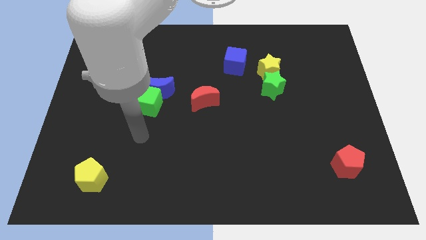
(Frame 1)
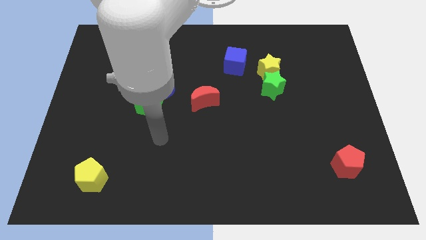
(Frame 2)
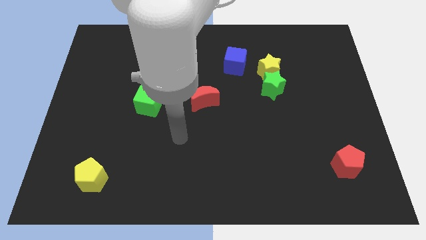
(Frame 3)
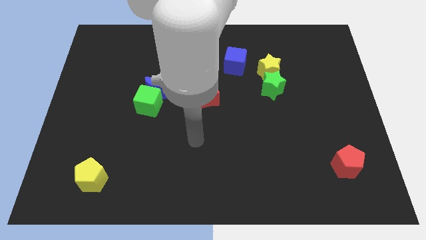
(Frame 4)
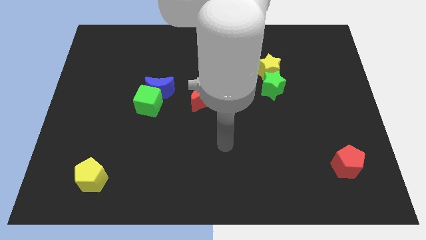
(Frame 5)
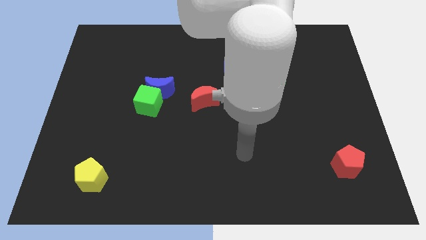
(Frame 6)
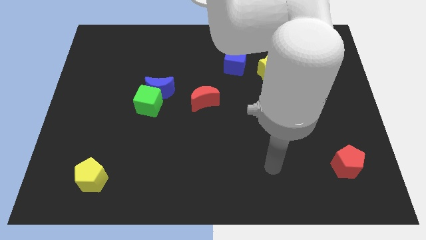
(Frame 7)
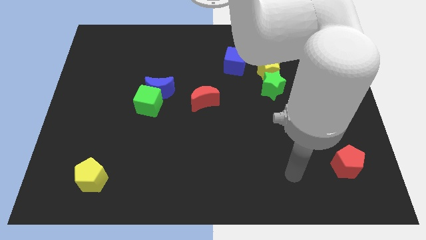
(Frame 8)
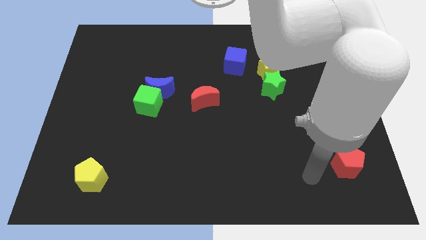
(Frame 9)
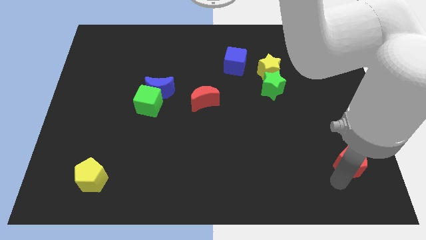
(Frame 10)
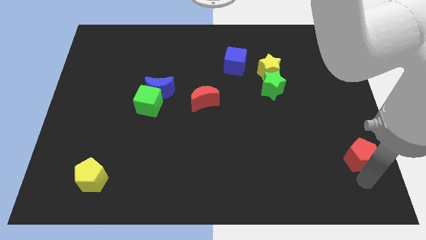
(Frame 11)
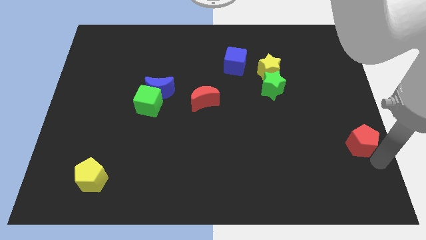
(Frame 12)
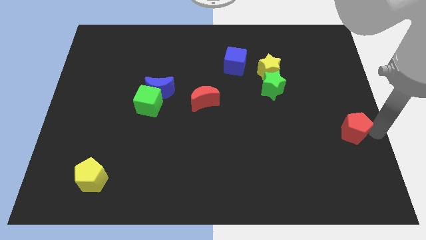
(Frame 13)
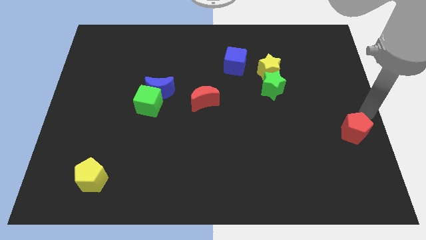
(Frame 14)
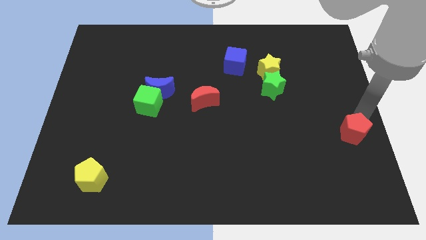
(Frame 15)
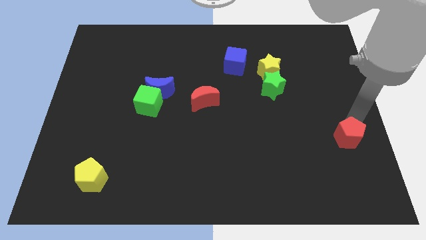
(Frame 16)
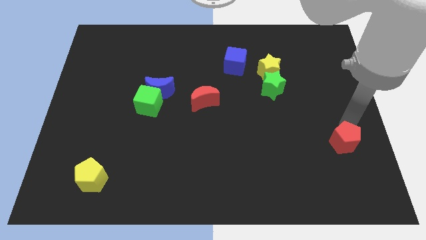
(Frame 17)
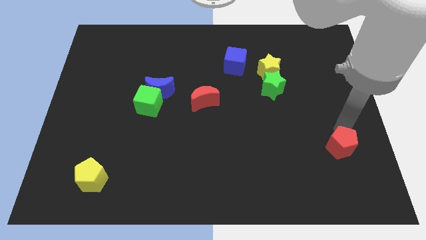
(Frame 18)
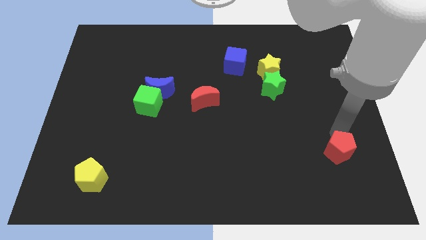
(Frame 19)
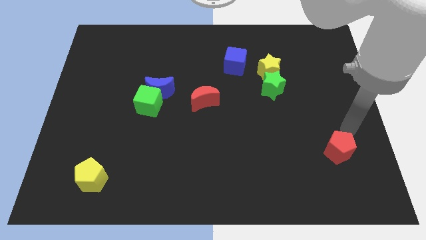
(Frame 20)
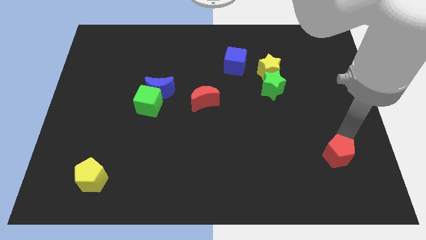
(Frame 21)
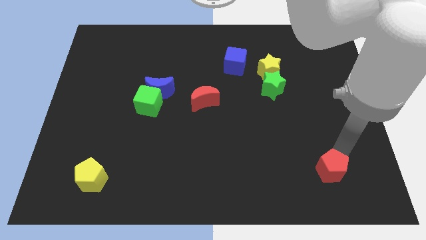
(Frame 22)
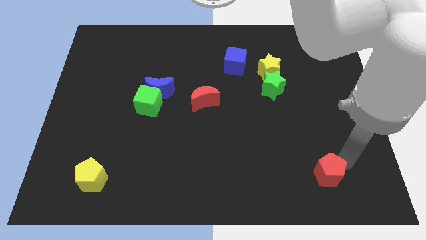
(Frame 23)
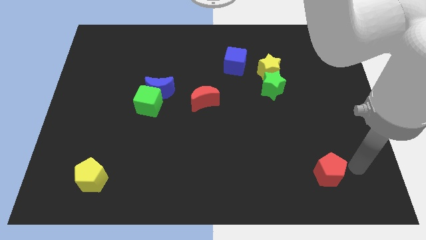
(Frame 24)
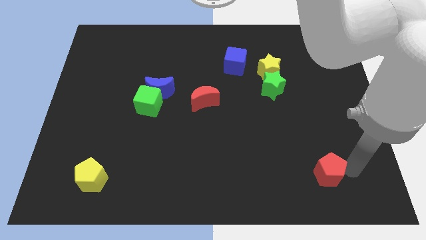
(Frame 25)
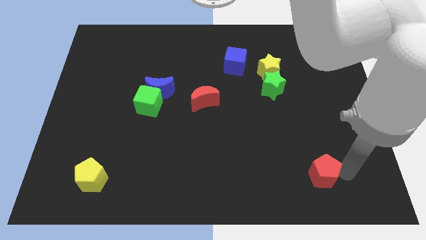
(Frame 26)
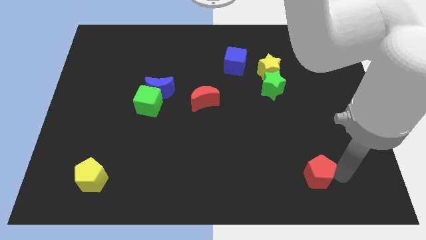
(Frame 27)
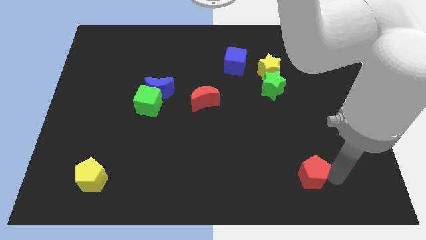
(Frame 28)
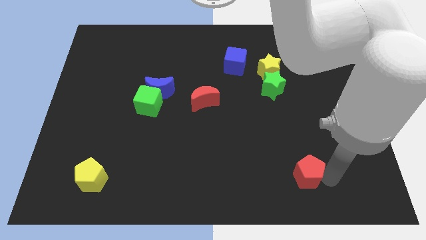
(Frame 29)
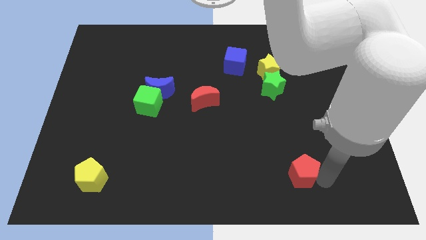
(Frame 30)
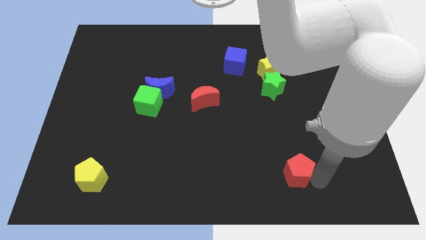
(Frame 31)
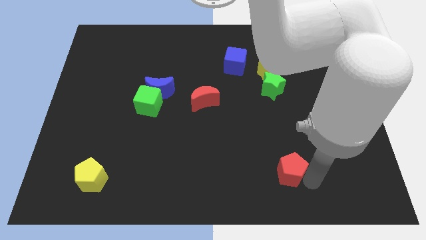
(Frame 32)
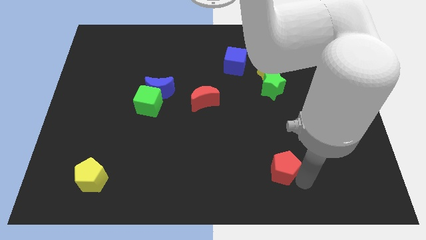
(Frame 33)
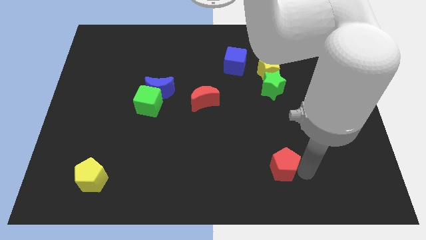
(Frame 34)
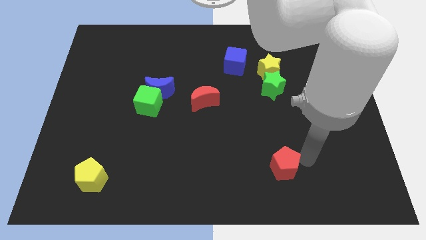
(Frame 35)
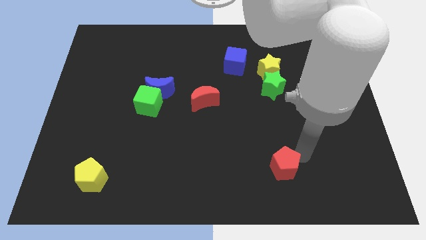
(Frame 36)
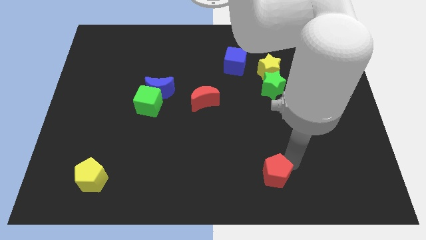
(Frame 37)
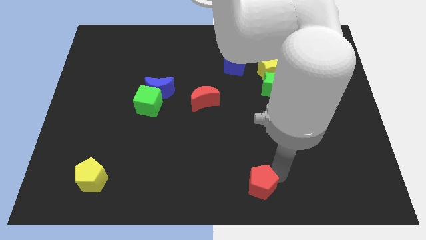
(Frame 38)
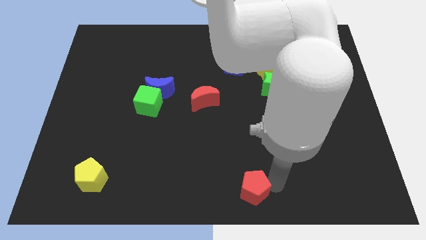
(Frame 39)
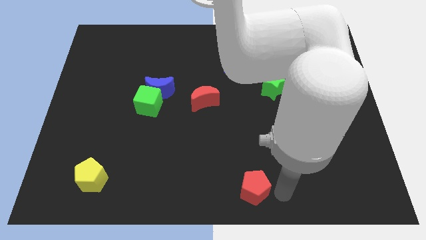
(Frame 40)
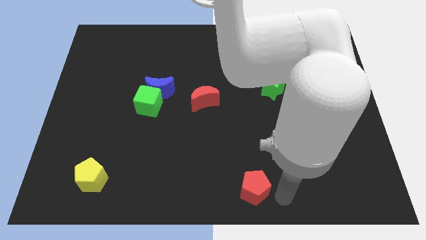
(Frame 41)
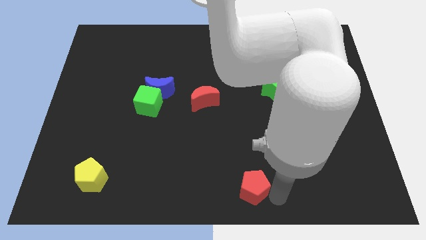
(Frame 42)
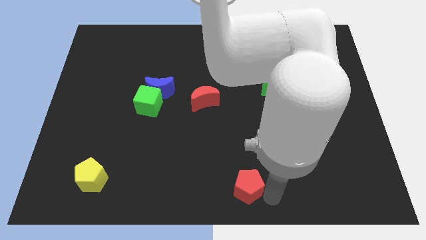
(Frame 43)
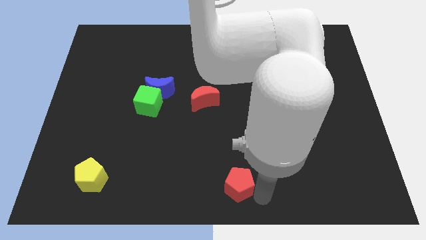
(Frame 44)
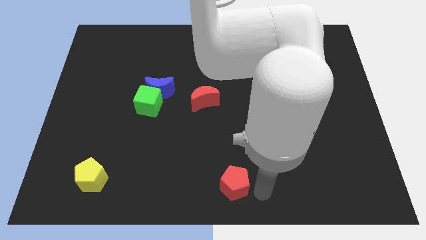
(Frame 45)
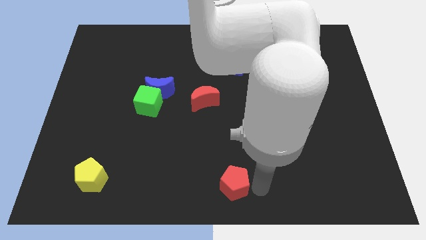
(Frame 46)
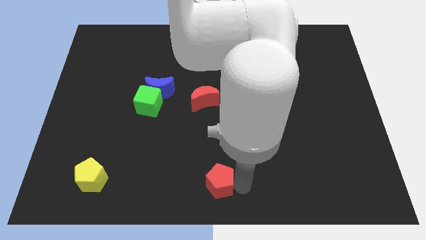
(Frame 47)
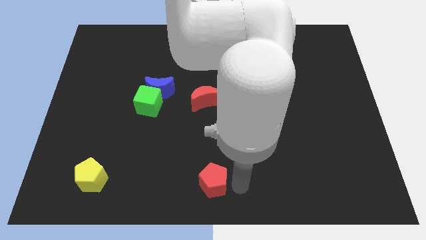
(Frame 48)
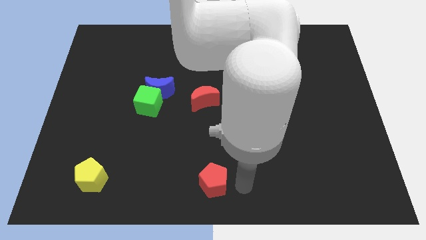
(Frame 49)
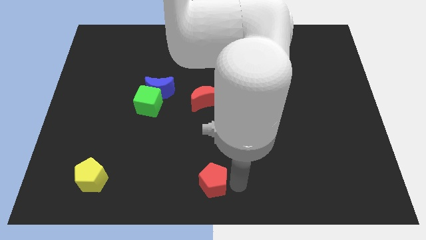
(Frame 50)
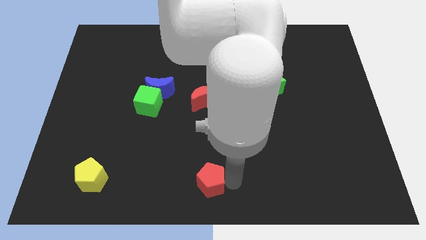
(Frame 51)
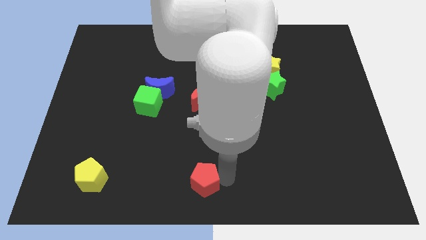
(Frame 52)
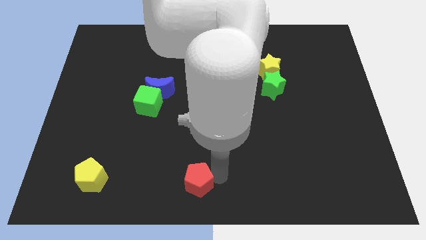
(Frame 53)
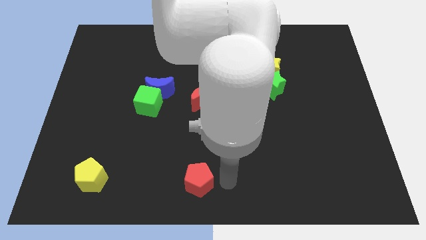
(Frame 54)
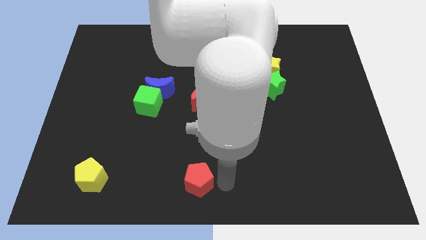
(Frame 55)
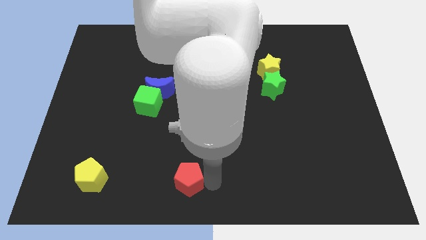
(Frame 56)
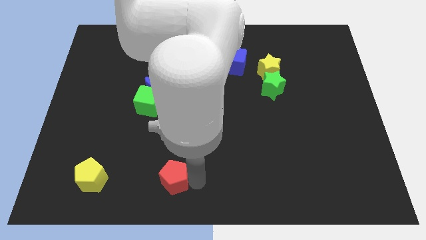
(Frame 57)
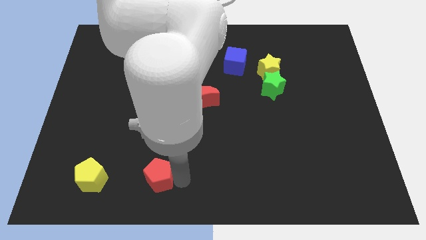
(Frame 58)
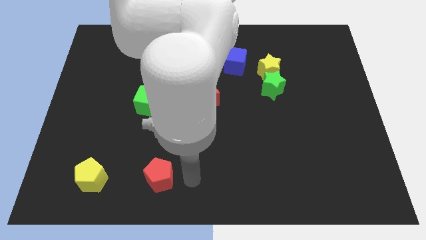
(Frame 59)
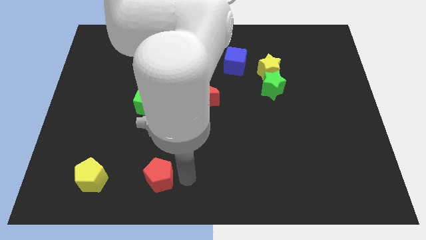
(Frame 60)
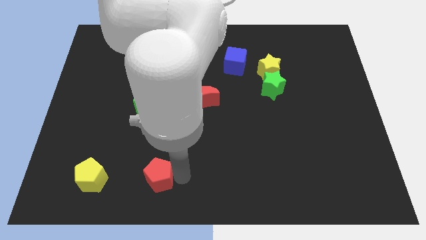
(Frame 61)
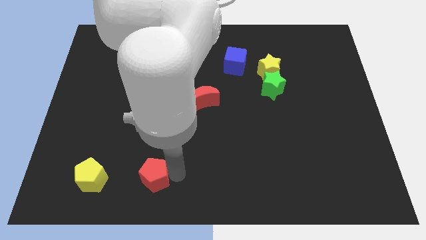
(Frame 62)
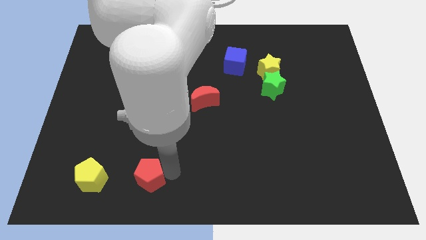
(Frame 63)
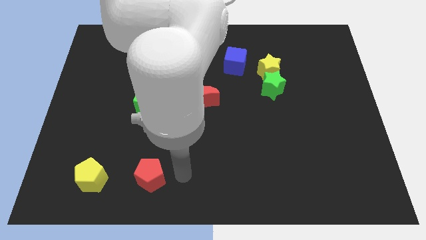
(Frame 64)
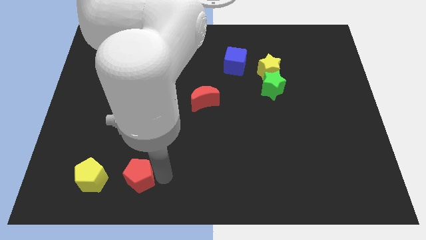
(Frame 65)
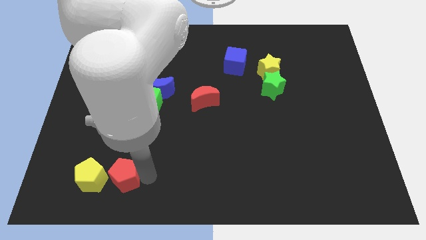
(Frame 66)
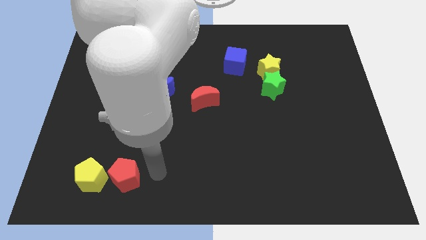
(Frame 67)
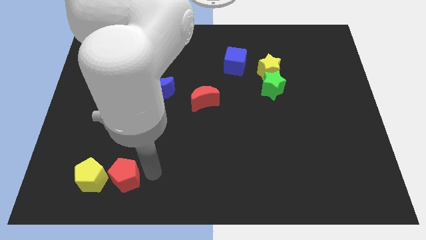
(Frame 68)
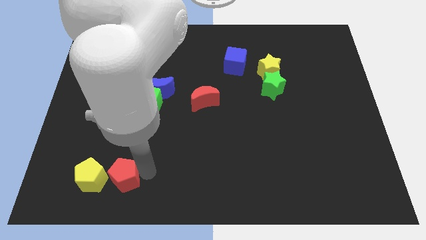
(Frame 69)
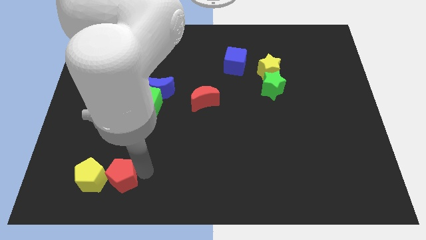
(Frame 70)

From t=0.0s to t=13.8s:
put the red pentagon close to the yellow pentagon

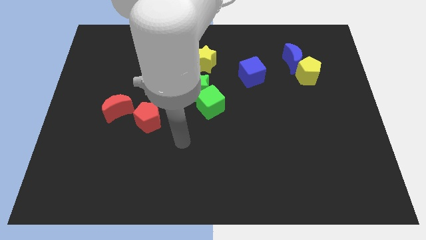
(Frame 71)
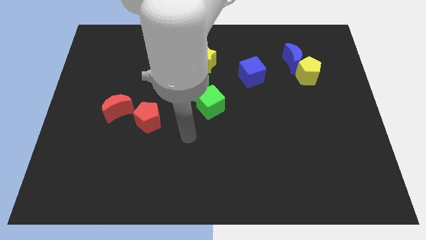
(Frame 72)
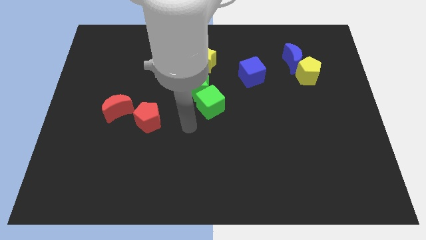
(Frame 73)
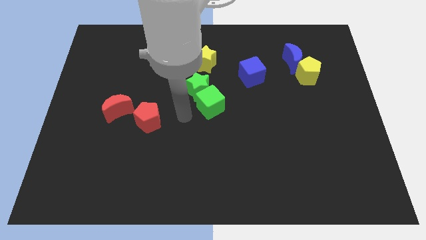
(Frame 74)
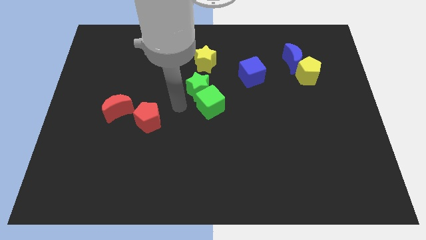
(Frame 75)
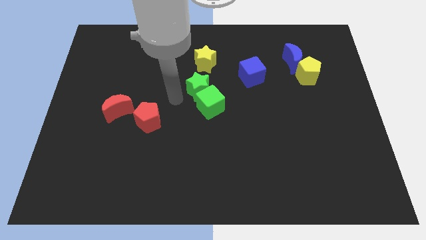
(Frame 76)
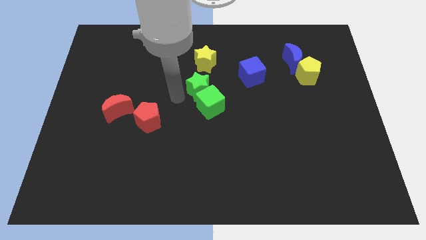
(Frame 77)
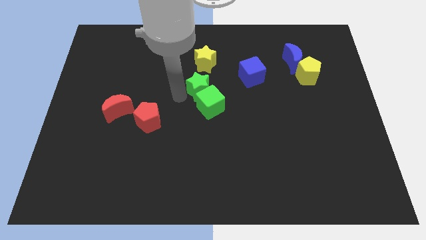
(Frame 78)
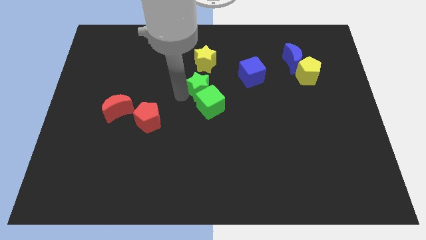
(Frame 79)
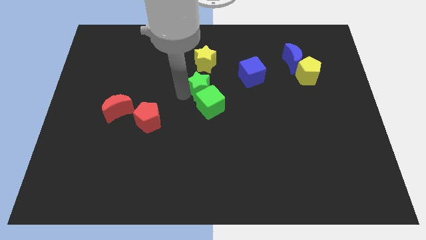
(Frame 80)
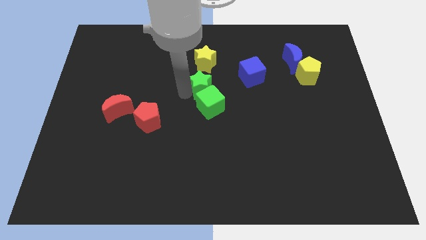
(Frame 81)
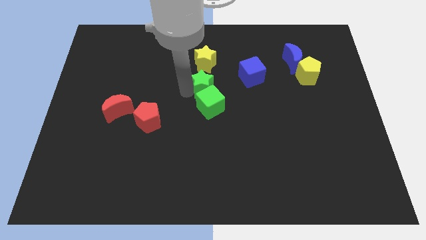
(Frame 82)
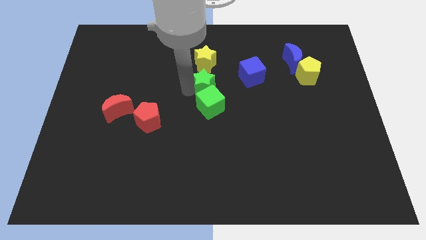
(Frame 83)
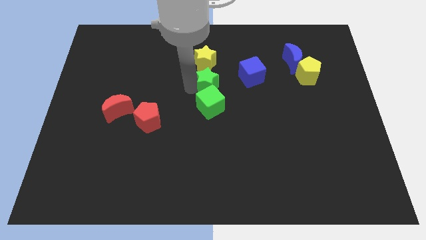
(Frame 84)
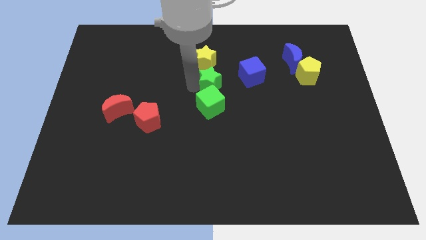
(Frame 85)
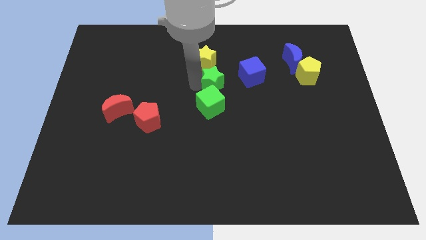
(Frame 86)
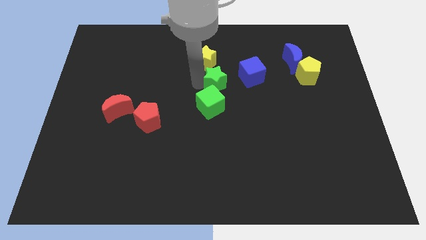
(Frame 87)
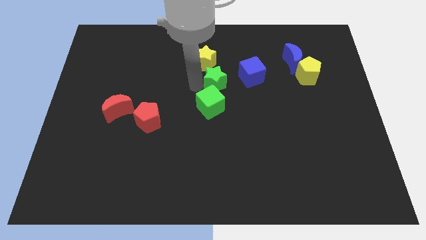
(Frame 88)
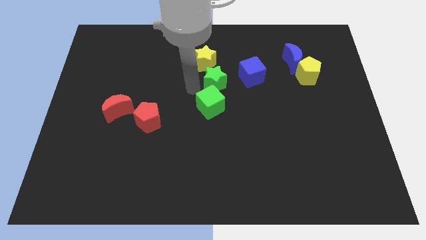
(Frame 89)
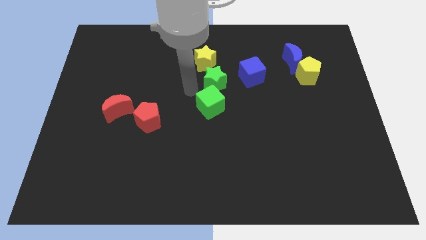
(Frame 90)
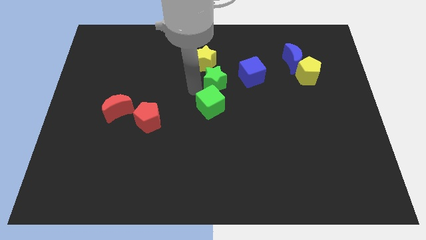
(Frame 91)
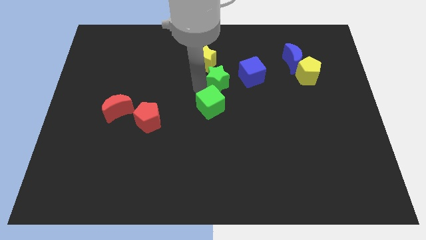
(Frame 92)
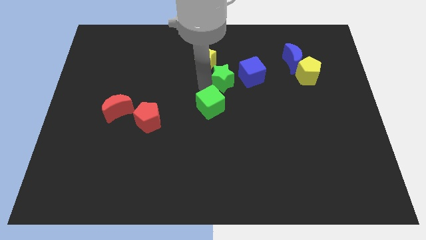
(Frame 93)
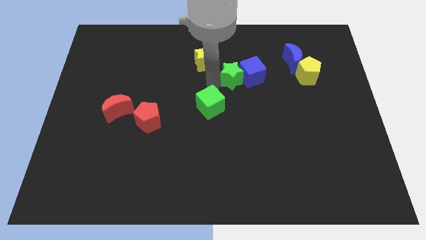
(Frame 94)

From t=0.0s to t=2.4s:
put the green star towards the blue cube
